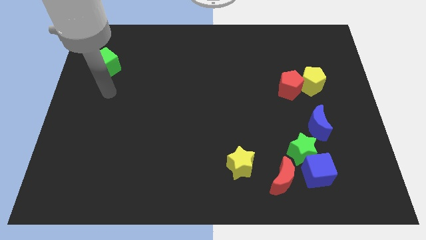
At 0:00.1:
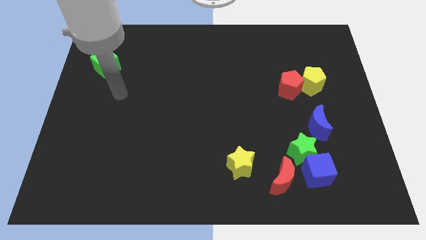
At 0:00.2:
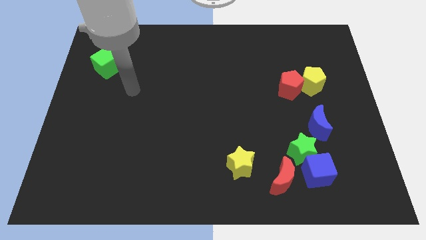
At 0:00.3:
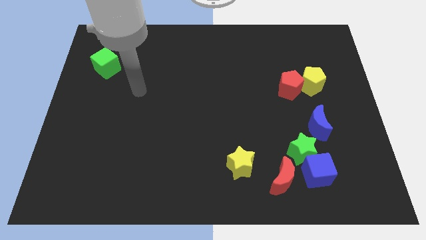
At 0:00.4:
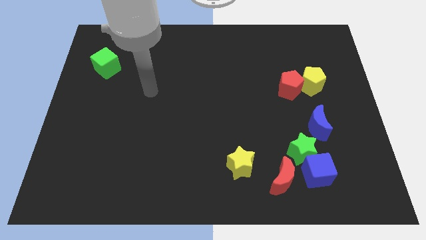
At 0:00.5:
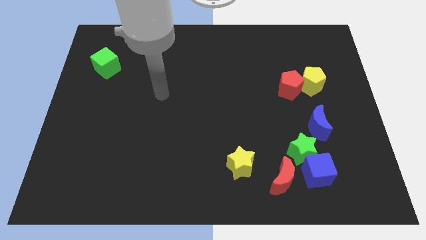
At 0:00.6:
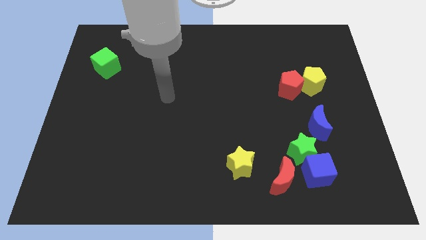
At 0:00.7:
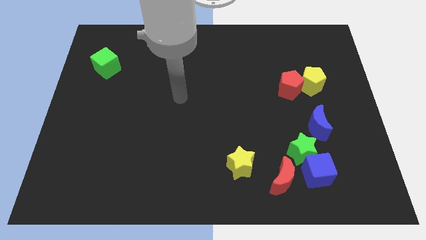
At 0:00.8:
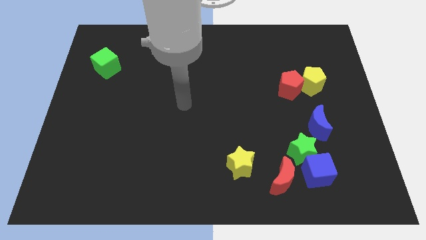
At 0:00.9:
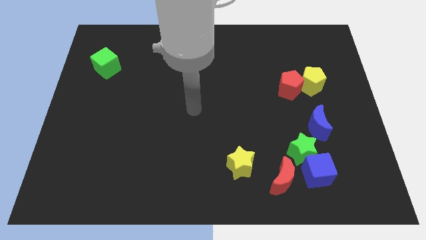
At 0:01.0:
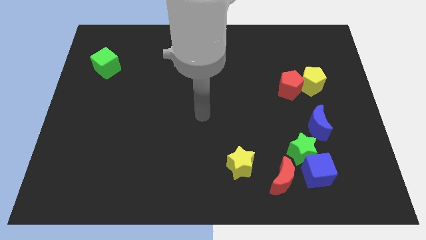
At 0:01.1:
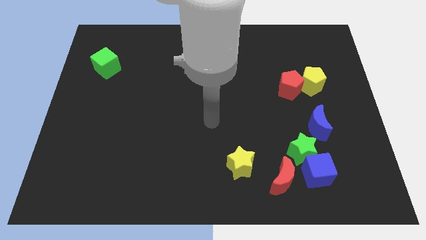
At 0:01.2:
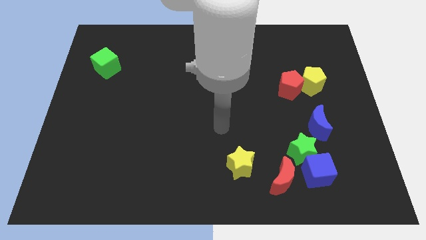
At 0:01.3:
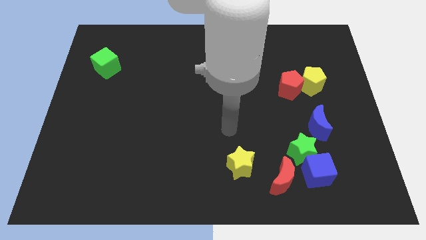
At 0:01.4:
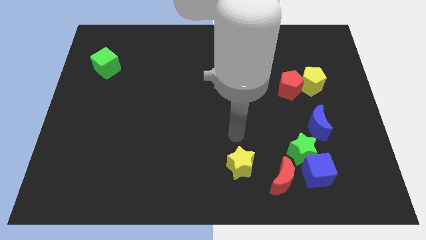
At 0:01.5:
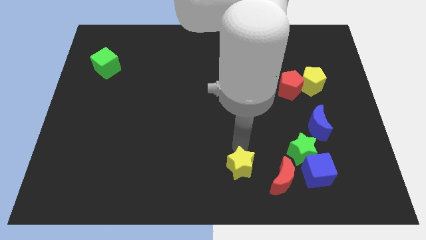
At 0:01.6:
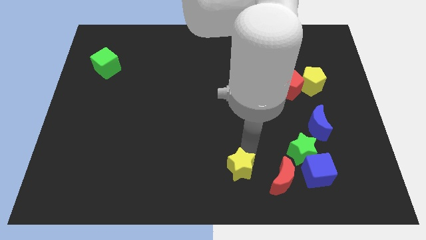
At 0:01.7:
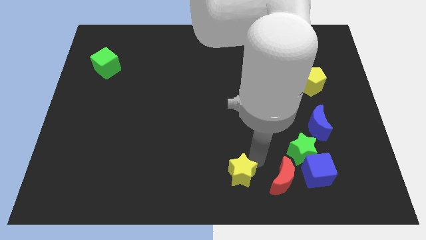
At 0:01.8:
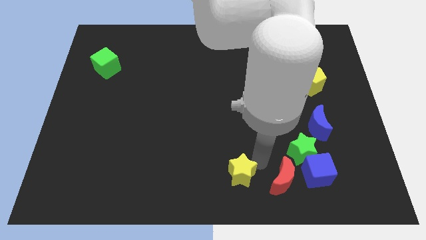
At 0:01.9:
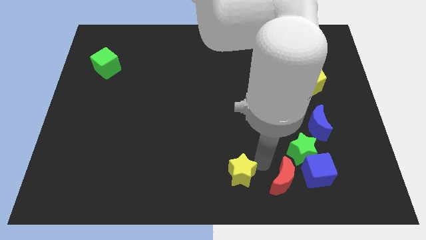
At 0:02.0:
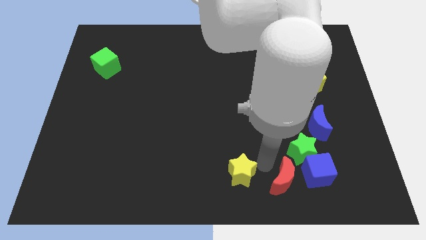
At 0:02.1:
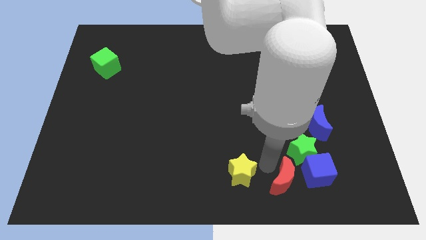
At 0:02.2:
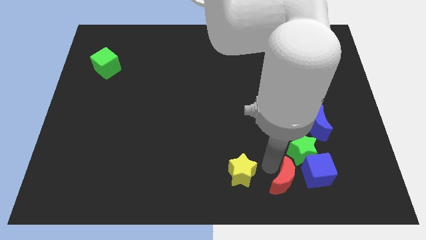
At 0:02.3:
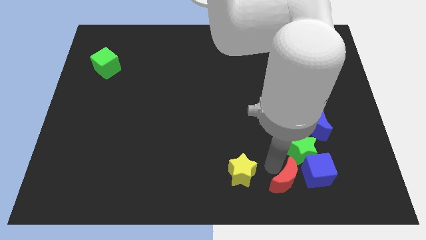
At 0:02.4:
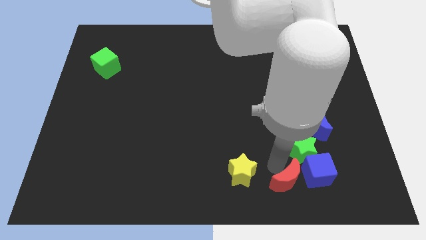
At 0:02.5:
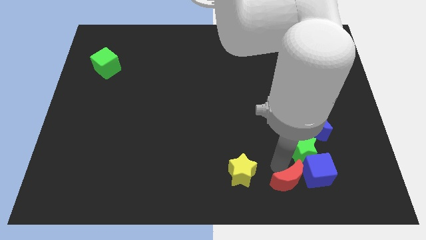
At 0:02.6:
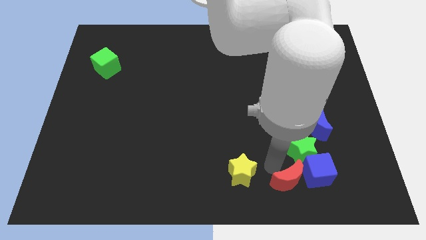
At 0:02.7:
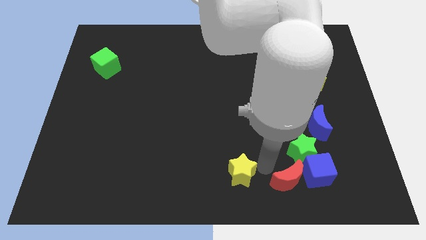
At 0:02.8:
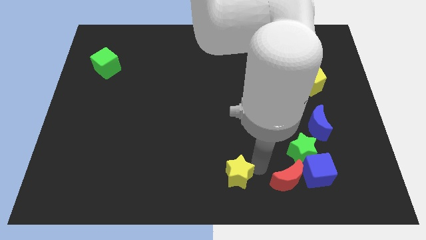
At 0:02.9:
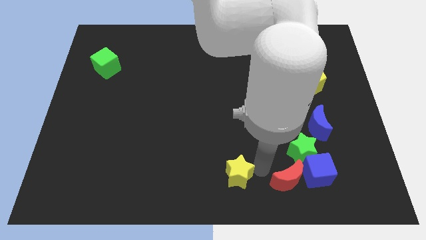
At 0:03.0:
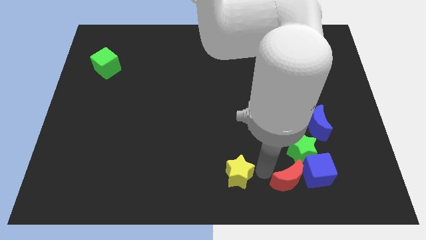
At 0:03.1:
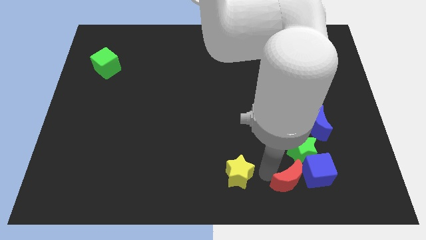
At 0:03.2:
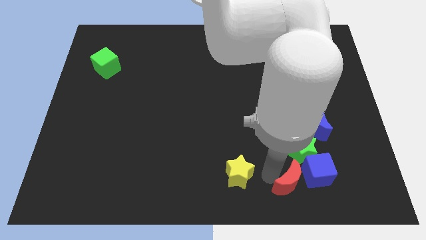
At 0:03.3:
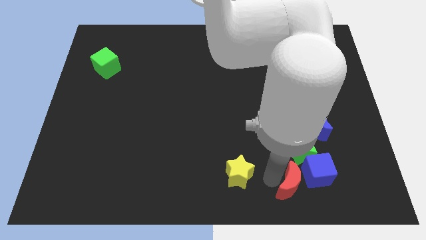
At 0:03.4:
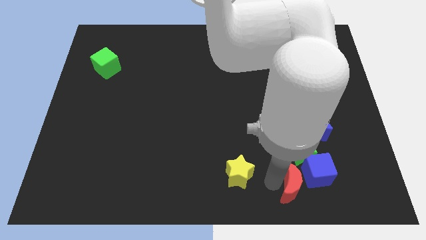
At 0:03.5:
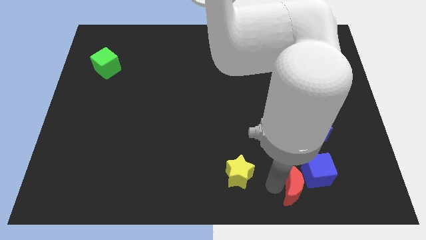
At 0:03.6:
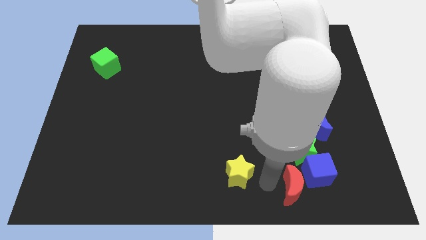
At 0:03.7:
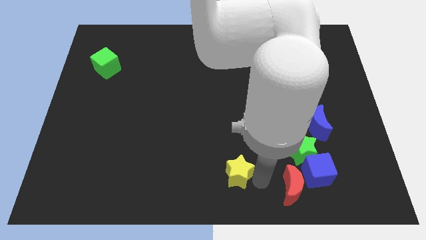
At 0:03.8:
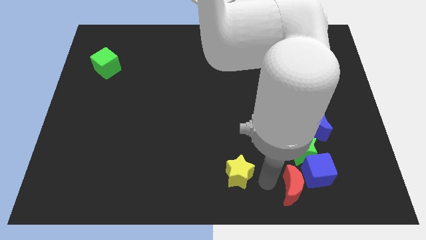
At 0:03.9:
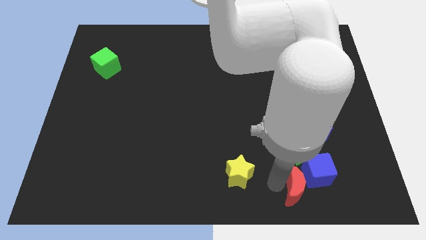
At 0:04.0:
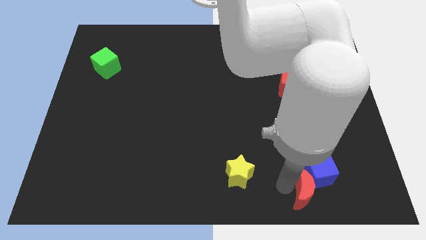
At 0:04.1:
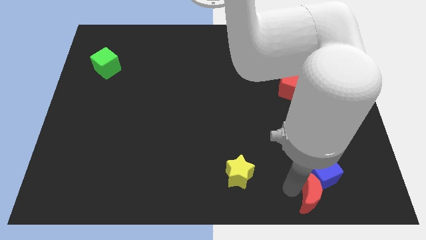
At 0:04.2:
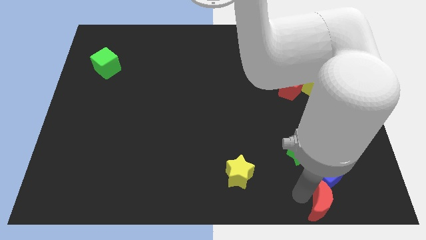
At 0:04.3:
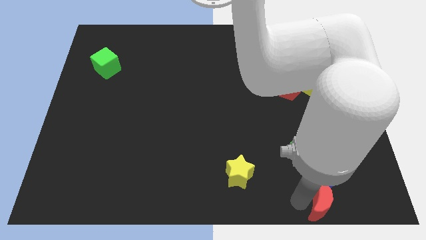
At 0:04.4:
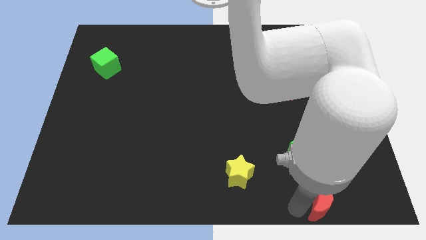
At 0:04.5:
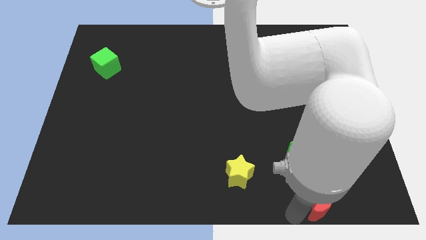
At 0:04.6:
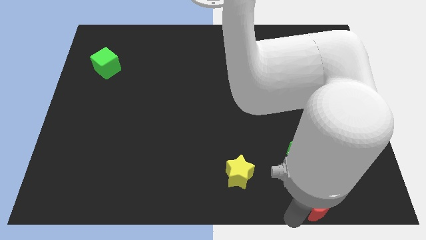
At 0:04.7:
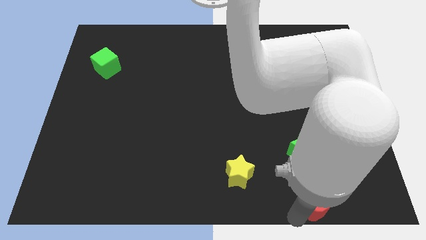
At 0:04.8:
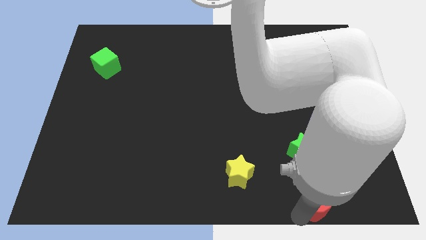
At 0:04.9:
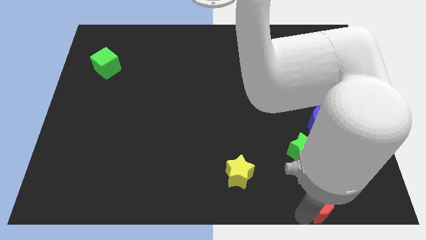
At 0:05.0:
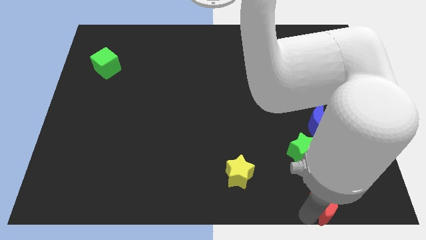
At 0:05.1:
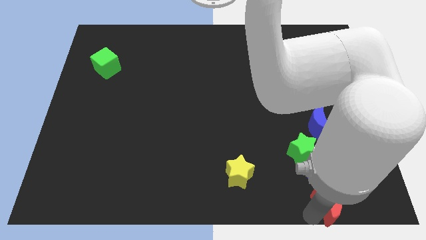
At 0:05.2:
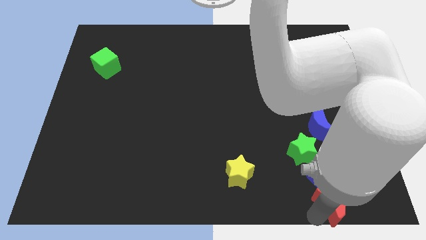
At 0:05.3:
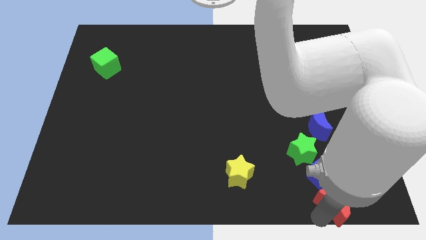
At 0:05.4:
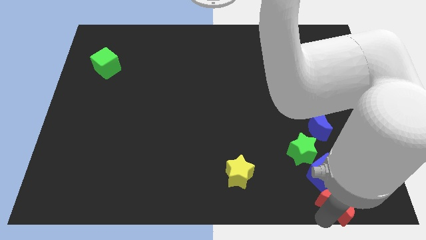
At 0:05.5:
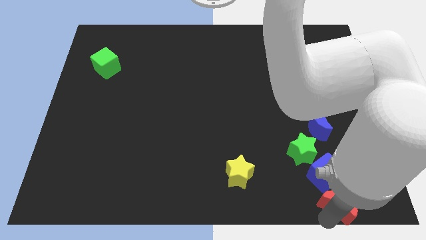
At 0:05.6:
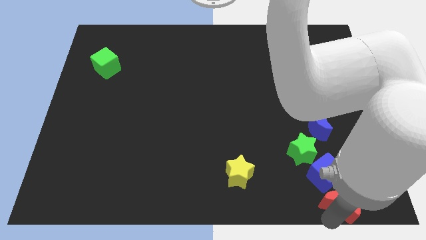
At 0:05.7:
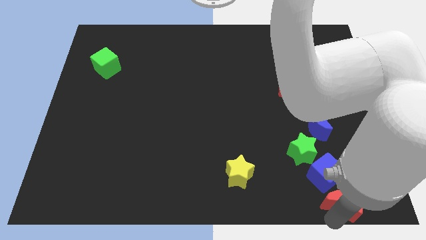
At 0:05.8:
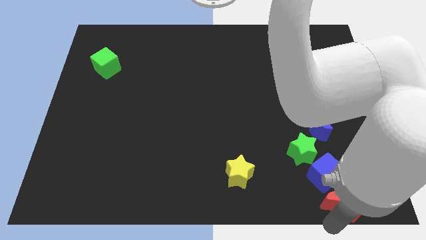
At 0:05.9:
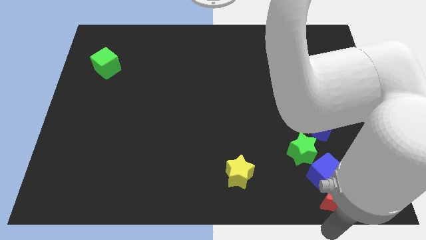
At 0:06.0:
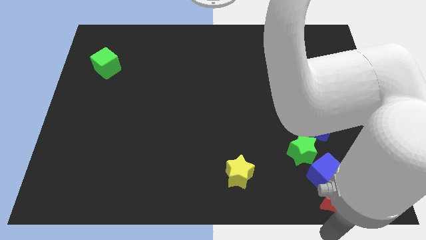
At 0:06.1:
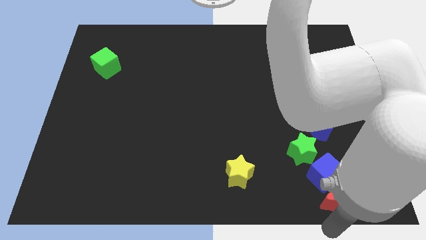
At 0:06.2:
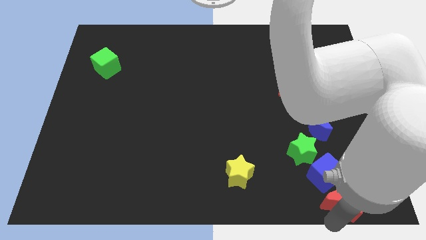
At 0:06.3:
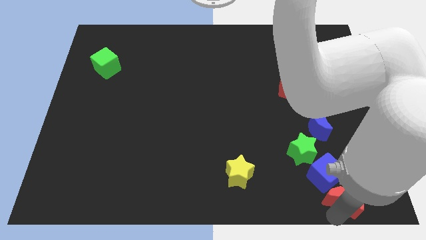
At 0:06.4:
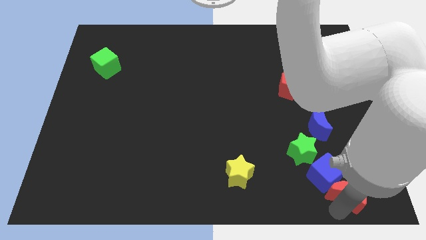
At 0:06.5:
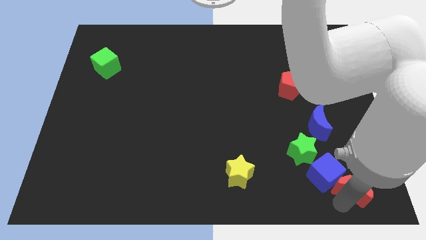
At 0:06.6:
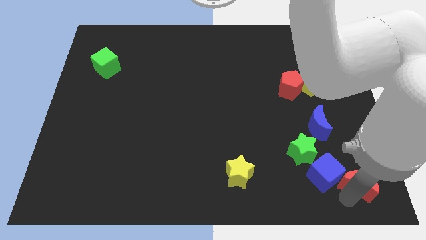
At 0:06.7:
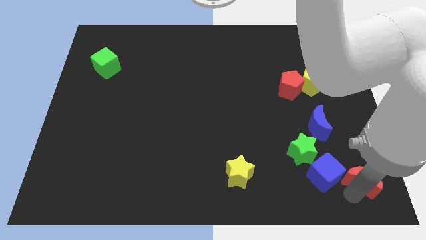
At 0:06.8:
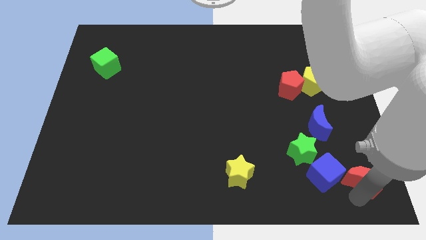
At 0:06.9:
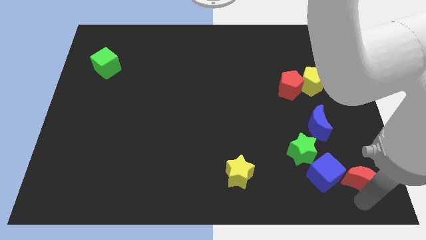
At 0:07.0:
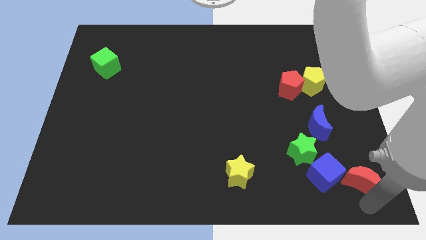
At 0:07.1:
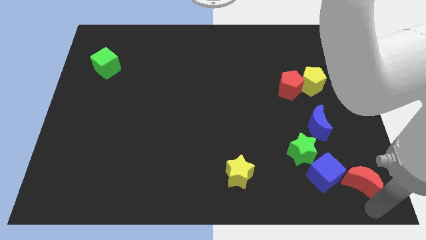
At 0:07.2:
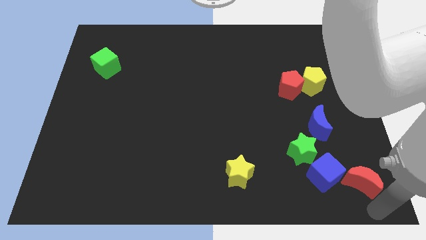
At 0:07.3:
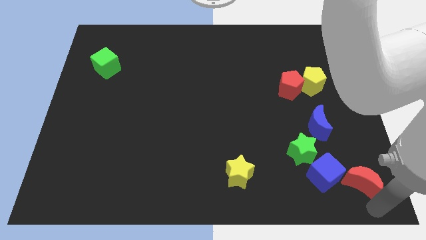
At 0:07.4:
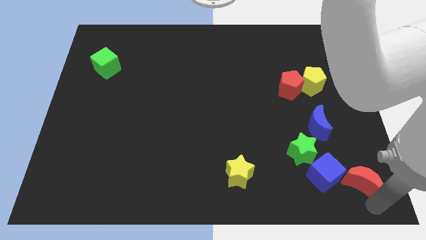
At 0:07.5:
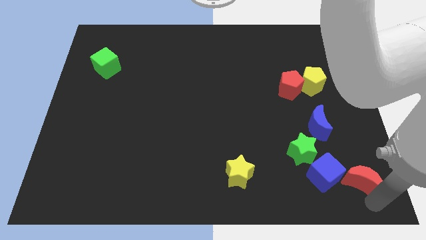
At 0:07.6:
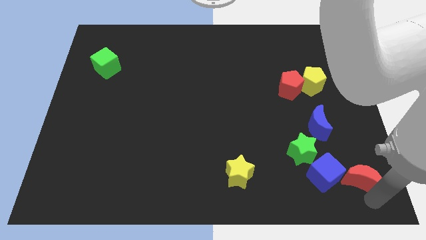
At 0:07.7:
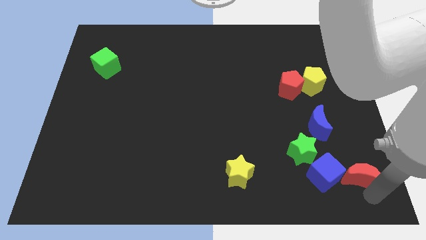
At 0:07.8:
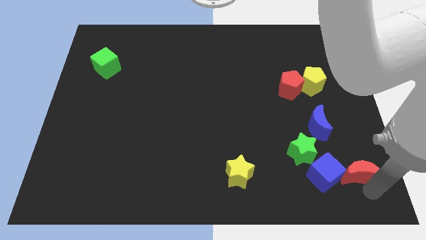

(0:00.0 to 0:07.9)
slide the red moon somewhat diagonally upwards and right

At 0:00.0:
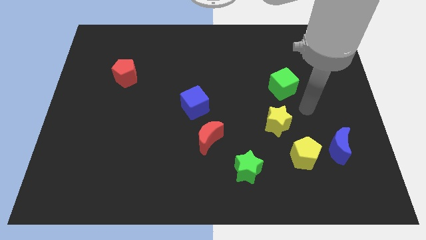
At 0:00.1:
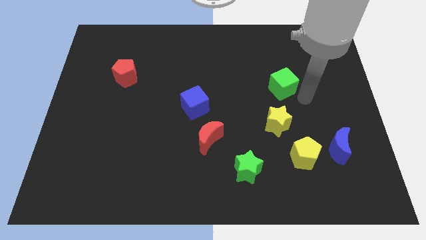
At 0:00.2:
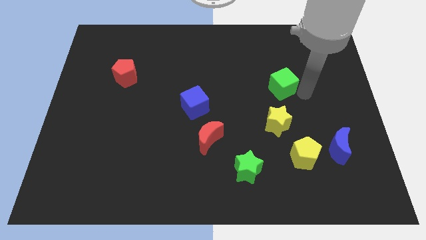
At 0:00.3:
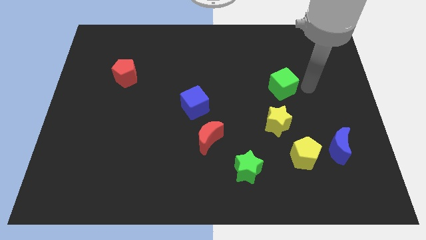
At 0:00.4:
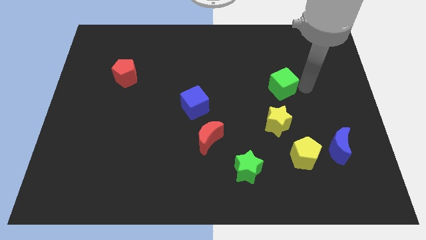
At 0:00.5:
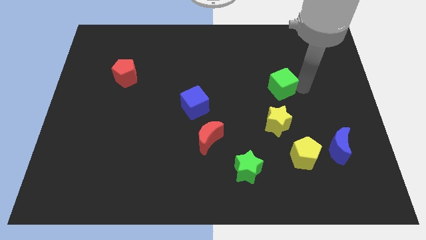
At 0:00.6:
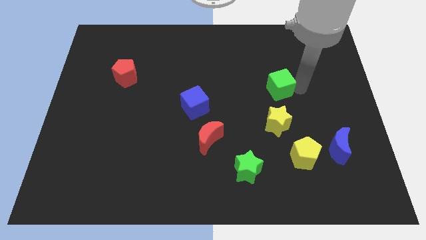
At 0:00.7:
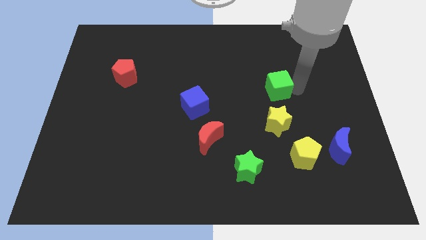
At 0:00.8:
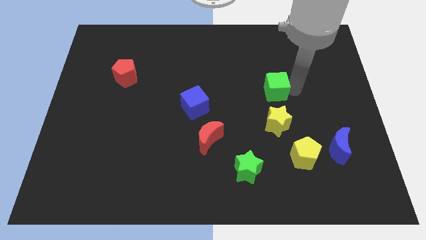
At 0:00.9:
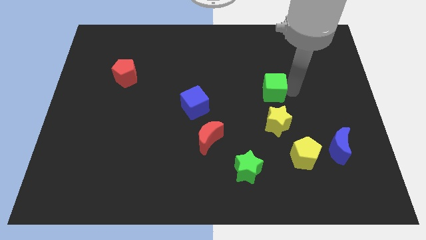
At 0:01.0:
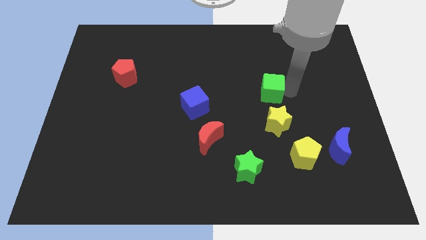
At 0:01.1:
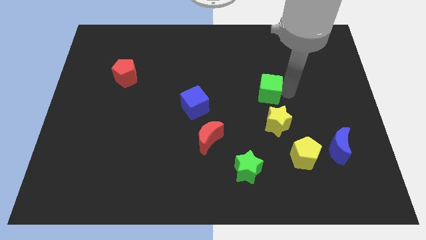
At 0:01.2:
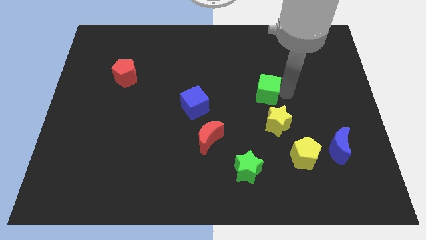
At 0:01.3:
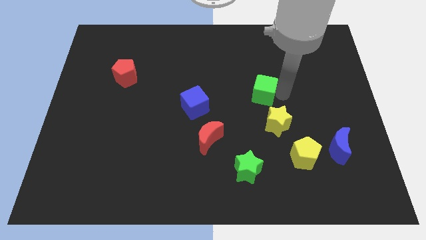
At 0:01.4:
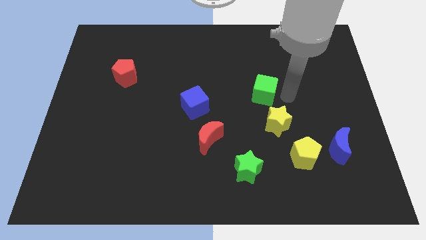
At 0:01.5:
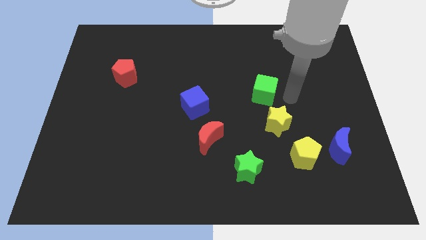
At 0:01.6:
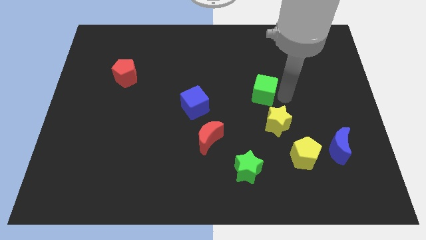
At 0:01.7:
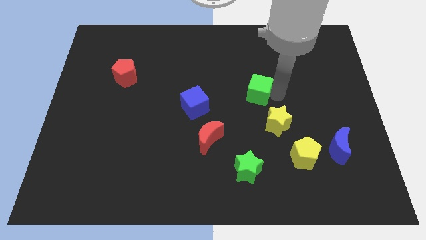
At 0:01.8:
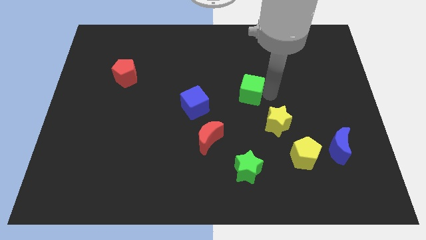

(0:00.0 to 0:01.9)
slightly move the green cube to the left
